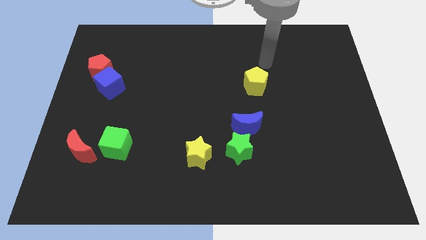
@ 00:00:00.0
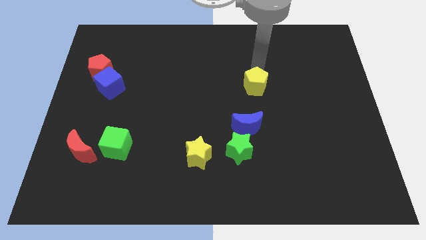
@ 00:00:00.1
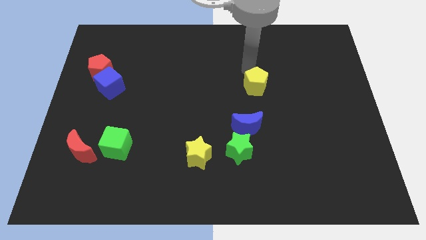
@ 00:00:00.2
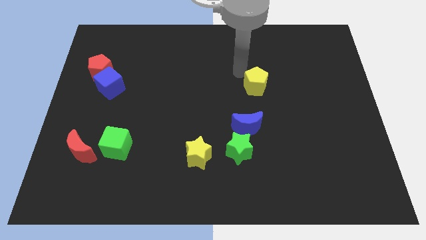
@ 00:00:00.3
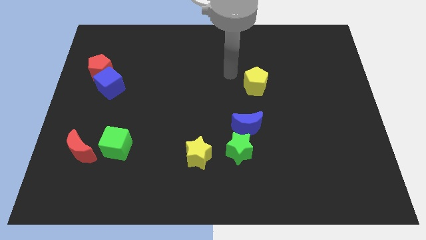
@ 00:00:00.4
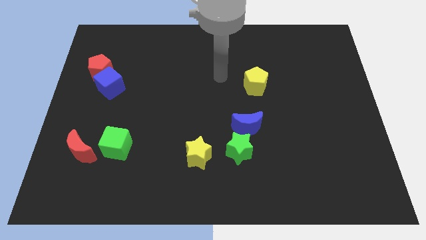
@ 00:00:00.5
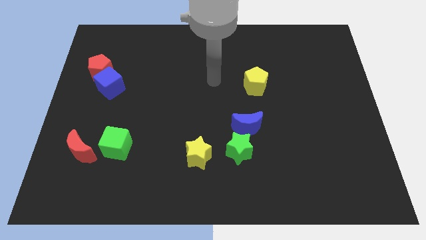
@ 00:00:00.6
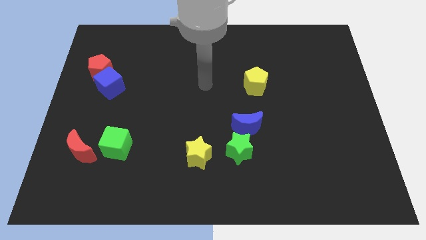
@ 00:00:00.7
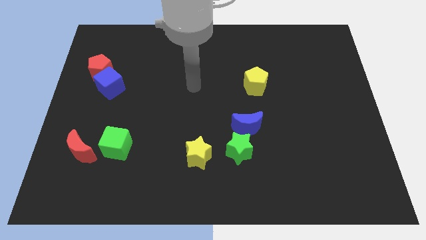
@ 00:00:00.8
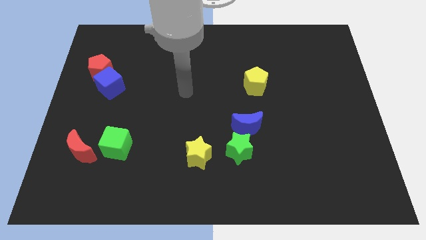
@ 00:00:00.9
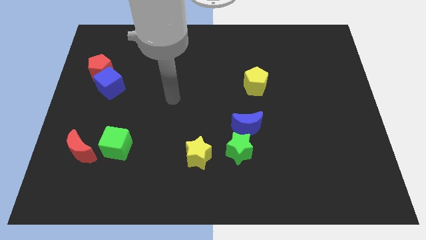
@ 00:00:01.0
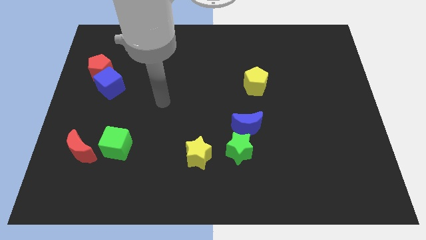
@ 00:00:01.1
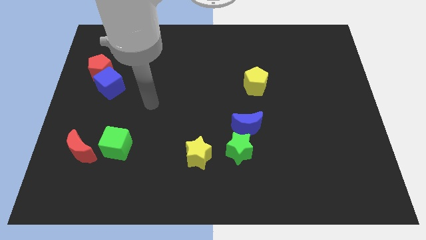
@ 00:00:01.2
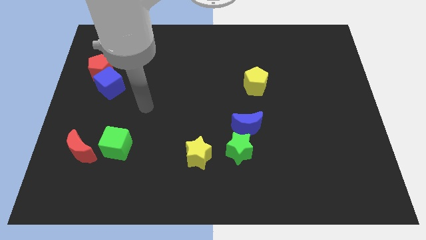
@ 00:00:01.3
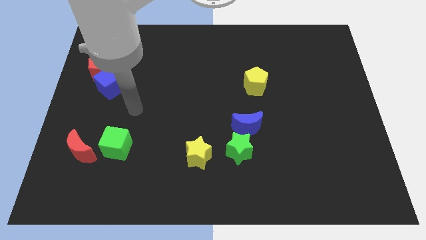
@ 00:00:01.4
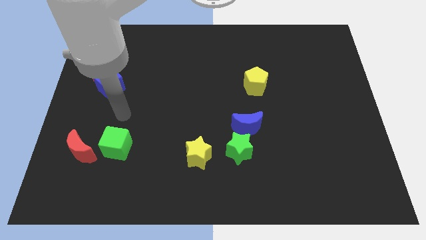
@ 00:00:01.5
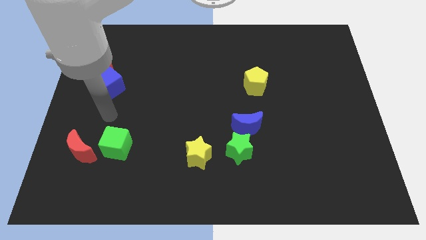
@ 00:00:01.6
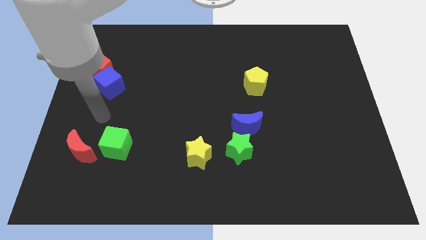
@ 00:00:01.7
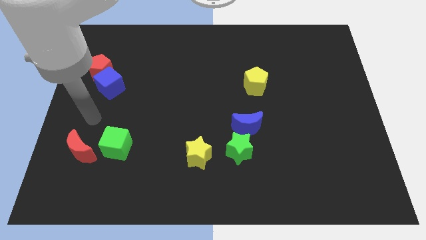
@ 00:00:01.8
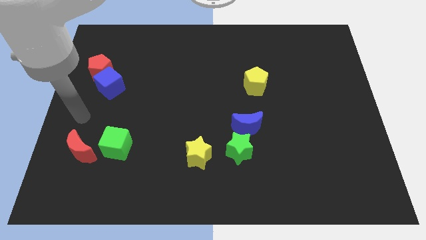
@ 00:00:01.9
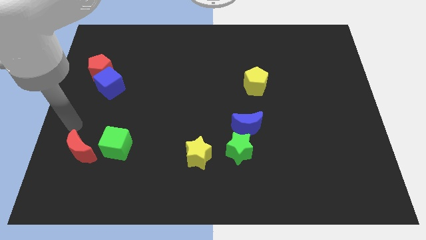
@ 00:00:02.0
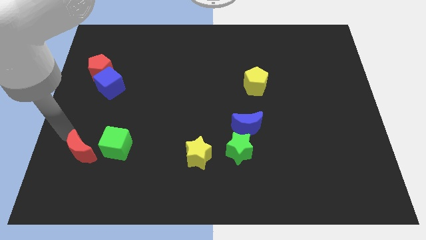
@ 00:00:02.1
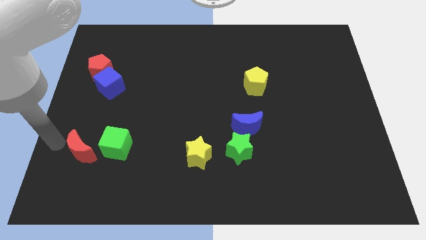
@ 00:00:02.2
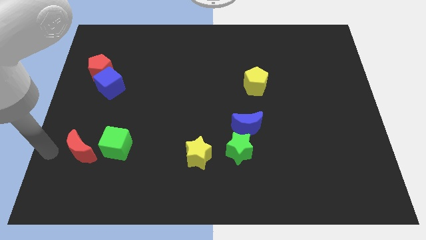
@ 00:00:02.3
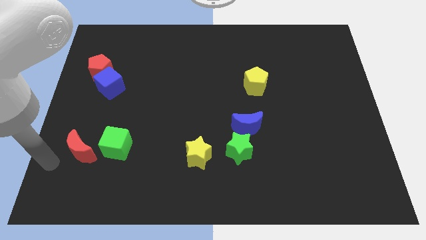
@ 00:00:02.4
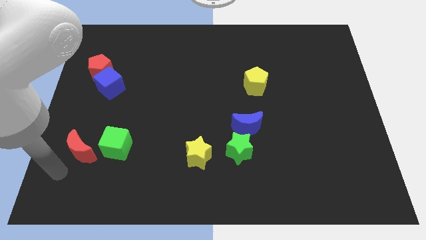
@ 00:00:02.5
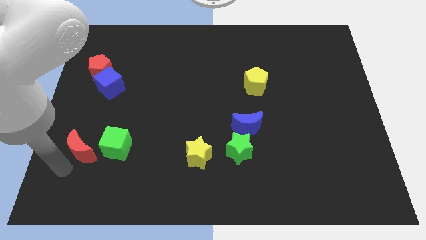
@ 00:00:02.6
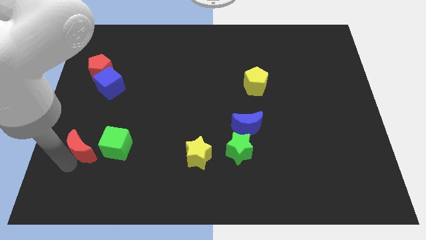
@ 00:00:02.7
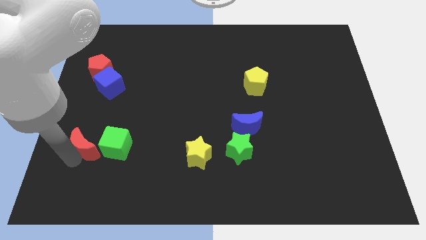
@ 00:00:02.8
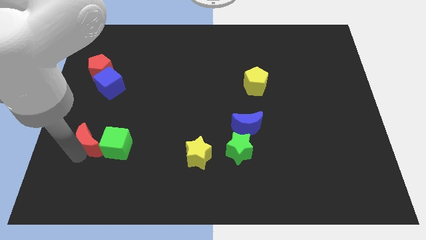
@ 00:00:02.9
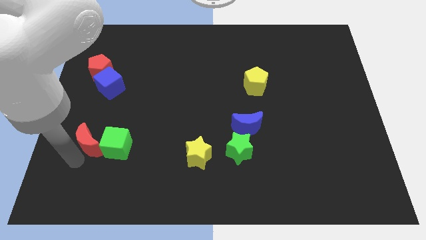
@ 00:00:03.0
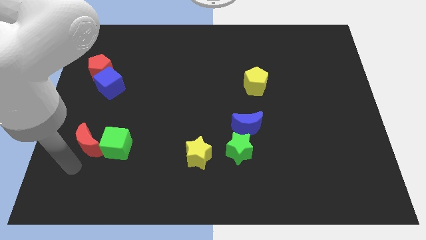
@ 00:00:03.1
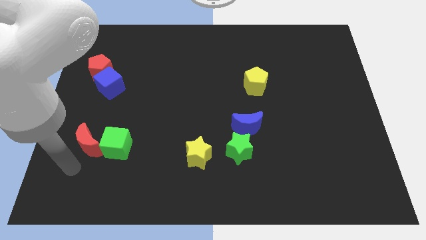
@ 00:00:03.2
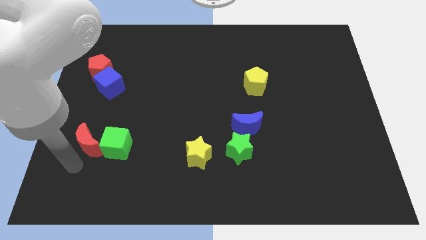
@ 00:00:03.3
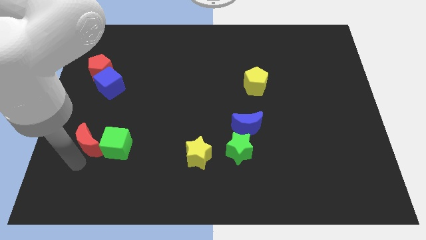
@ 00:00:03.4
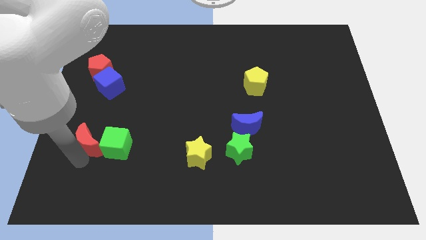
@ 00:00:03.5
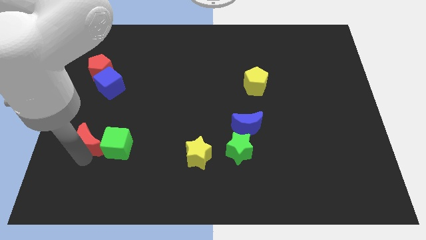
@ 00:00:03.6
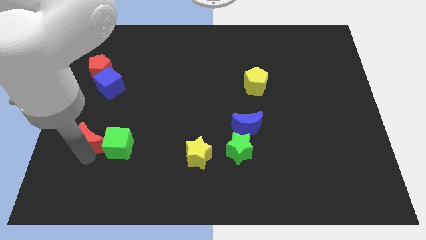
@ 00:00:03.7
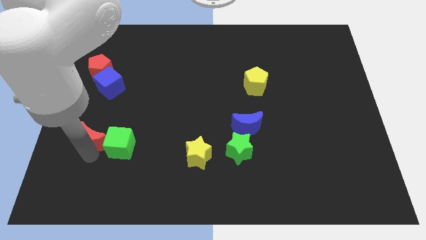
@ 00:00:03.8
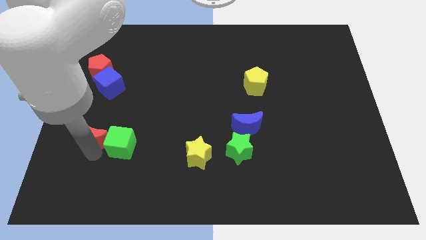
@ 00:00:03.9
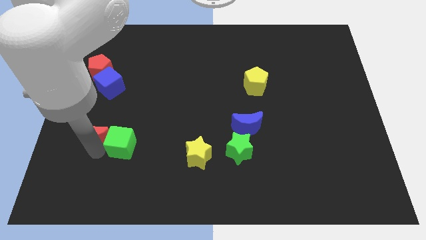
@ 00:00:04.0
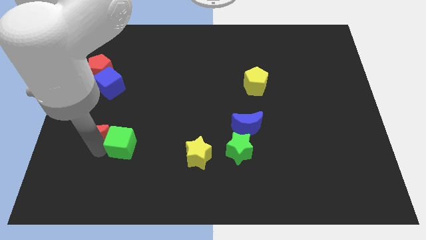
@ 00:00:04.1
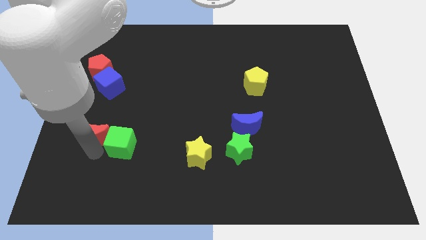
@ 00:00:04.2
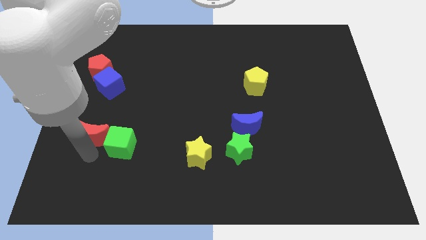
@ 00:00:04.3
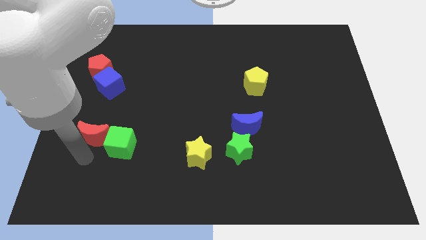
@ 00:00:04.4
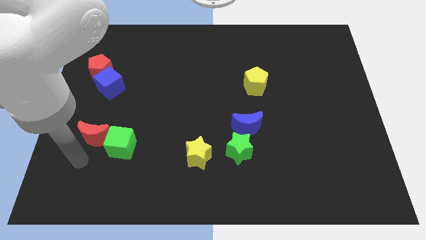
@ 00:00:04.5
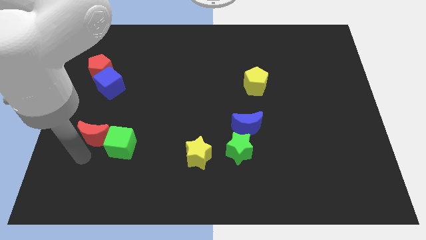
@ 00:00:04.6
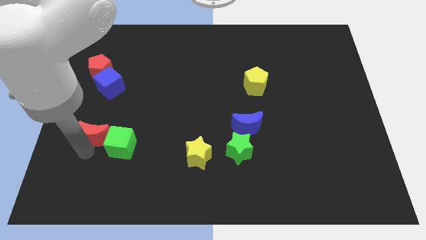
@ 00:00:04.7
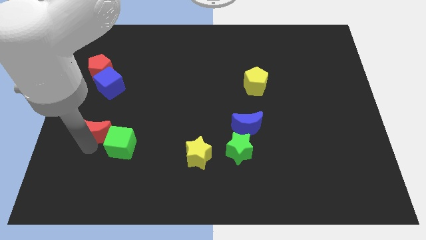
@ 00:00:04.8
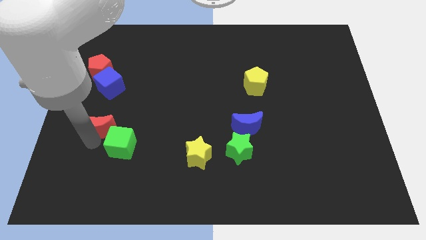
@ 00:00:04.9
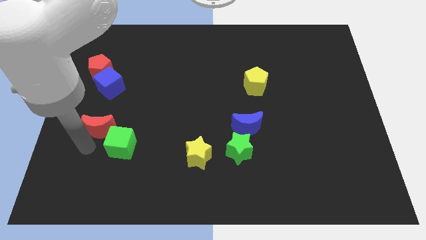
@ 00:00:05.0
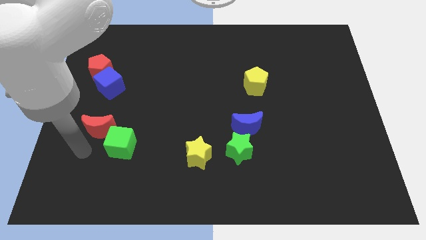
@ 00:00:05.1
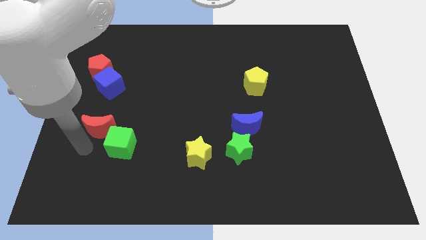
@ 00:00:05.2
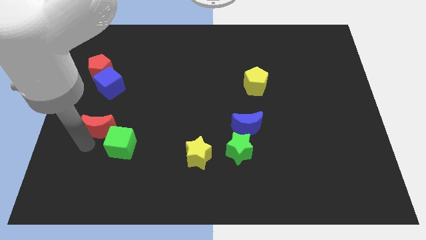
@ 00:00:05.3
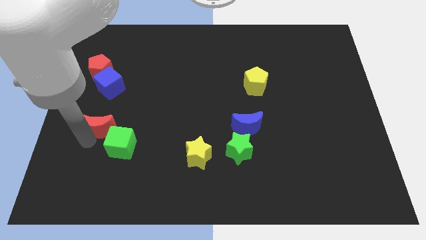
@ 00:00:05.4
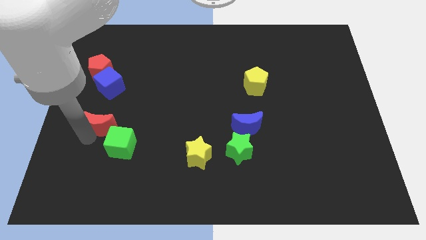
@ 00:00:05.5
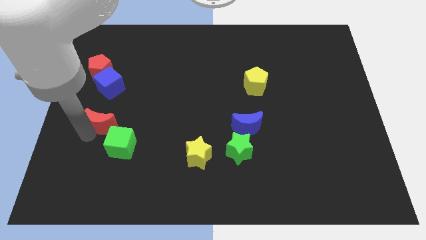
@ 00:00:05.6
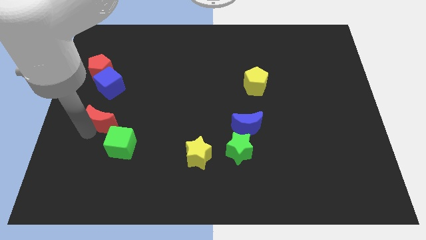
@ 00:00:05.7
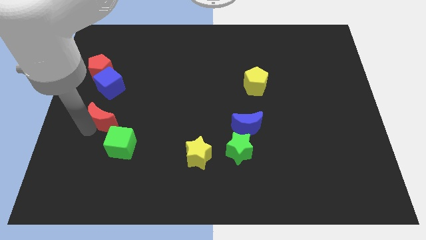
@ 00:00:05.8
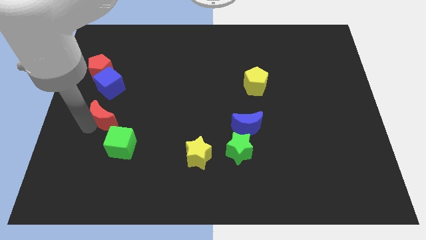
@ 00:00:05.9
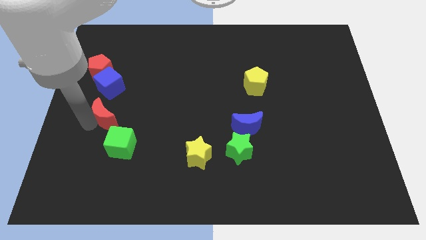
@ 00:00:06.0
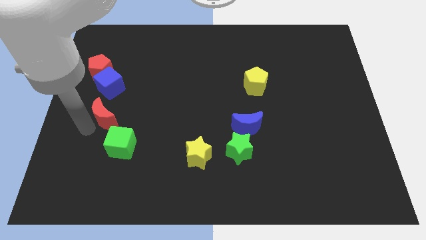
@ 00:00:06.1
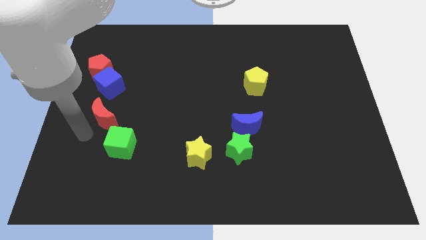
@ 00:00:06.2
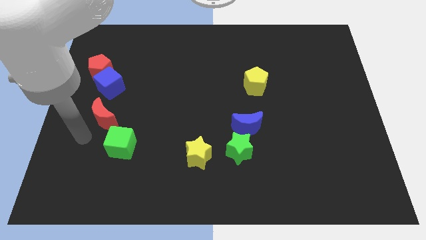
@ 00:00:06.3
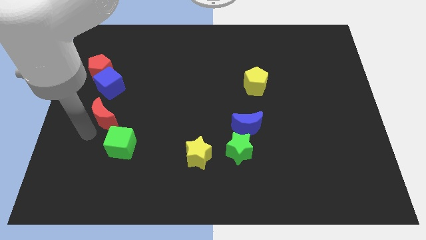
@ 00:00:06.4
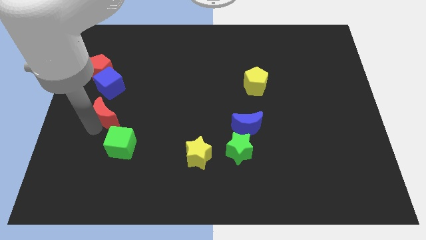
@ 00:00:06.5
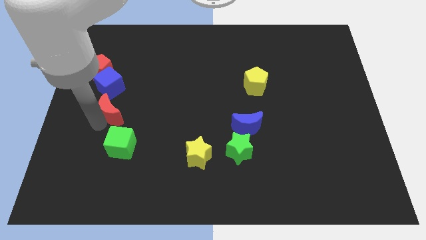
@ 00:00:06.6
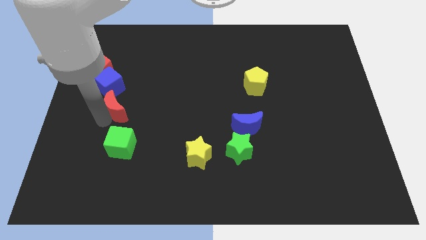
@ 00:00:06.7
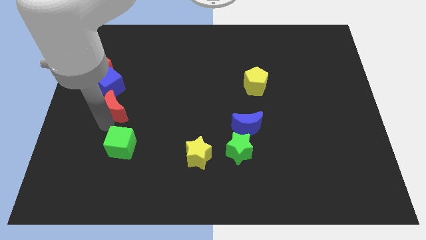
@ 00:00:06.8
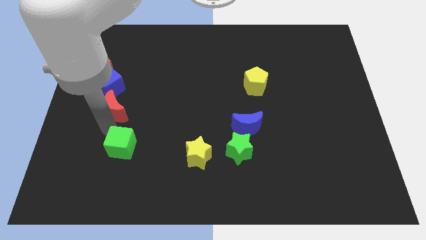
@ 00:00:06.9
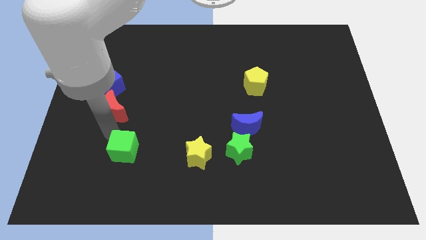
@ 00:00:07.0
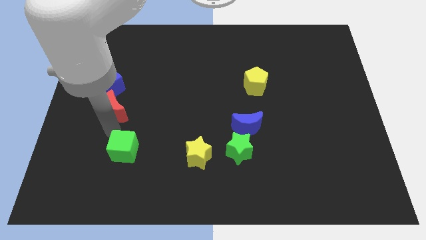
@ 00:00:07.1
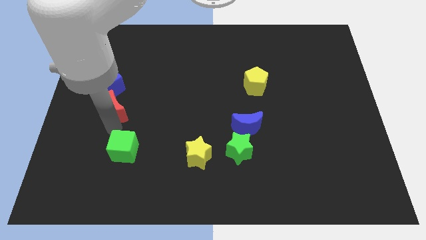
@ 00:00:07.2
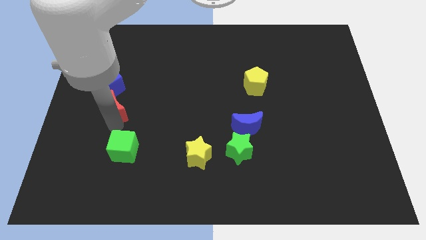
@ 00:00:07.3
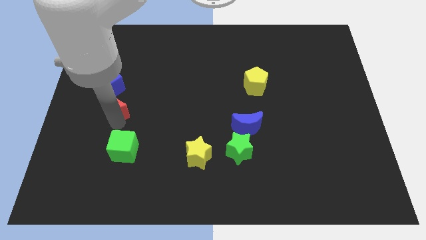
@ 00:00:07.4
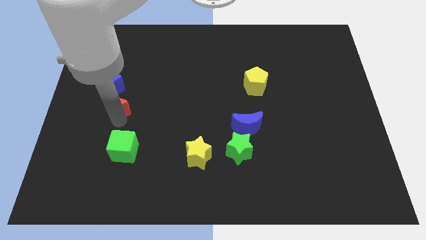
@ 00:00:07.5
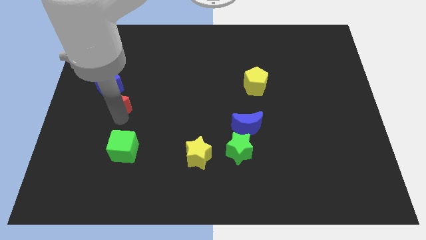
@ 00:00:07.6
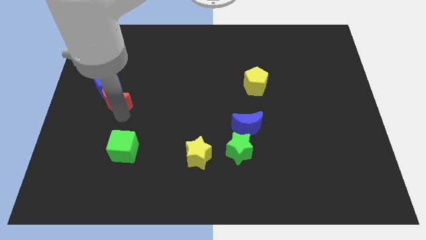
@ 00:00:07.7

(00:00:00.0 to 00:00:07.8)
push the red moon to the bottom right of the red pentagon
